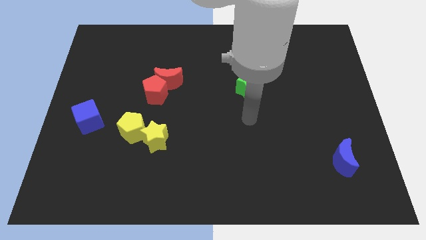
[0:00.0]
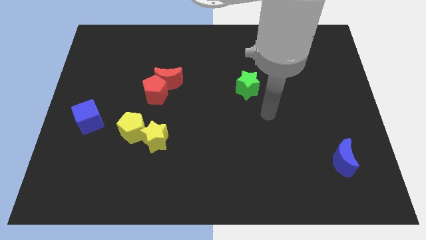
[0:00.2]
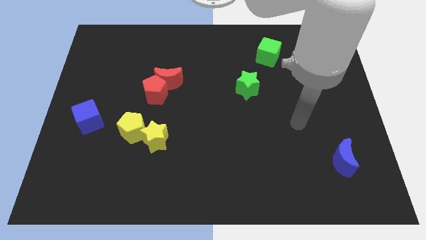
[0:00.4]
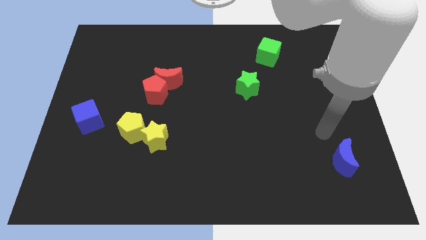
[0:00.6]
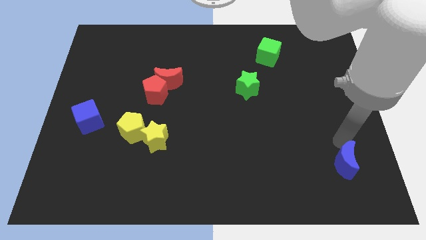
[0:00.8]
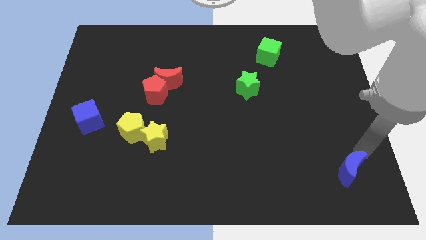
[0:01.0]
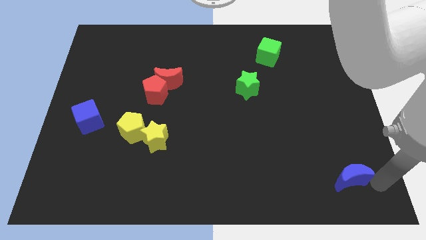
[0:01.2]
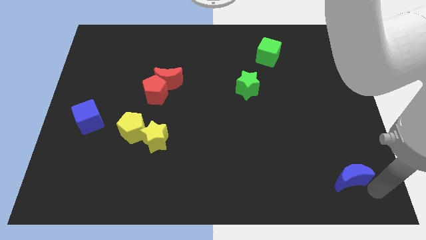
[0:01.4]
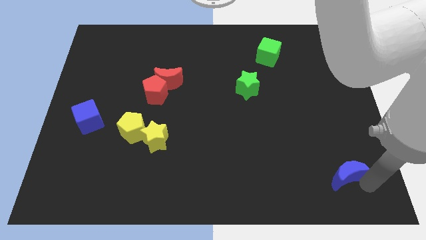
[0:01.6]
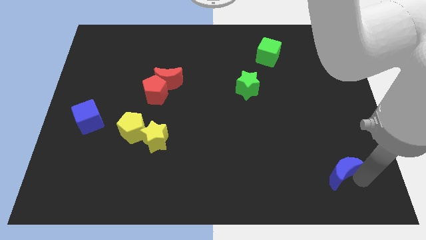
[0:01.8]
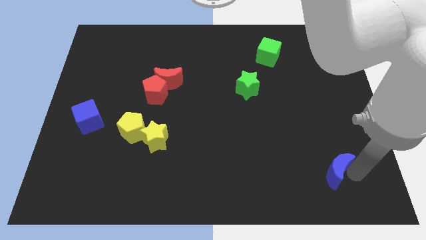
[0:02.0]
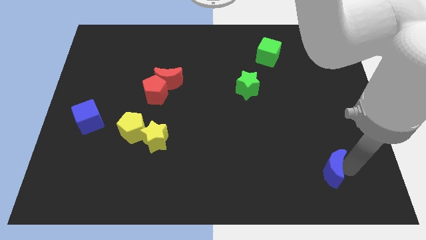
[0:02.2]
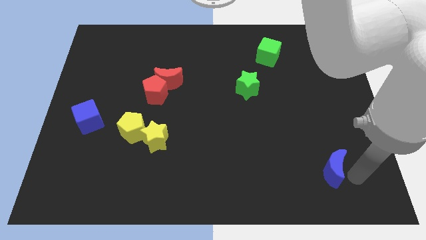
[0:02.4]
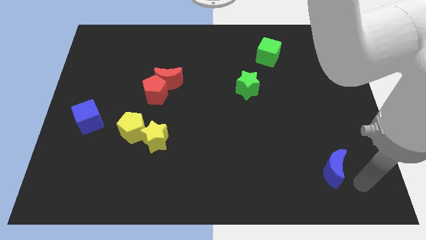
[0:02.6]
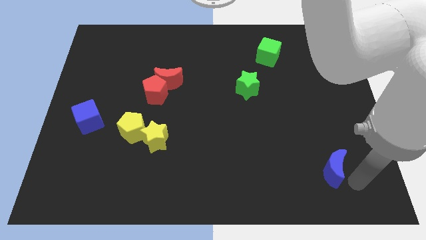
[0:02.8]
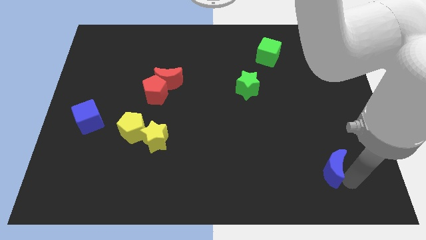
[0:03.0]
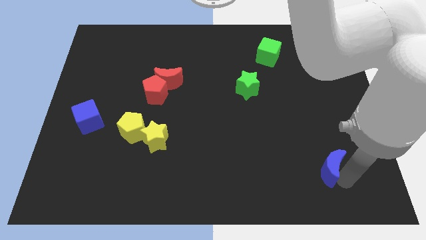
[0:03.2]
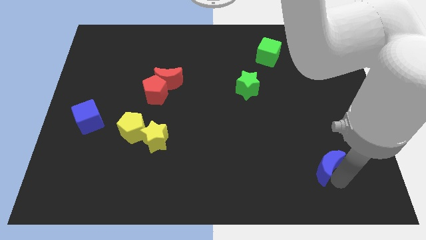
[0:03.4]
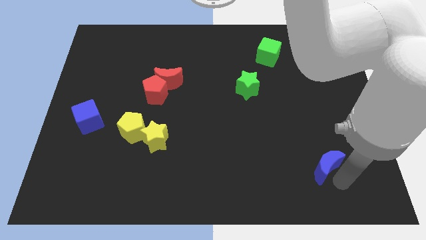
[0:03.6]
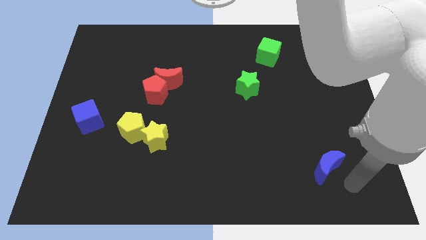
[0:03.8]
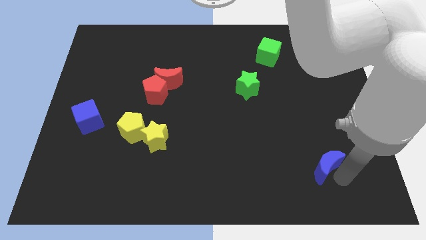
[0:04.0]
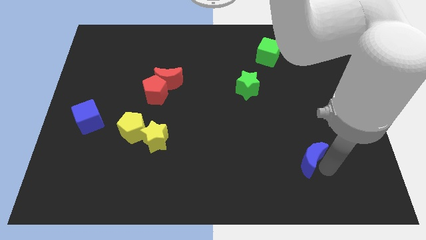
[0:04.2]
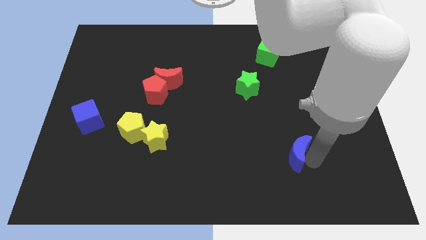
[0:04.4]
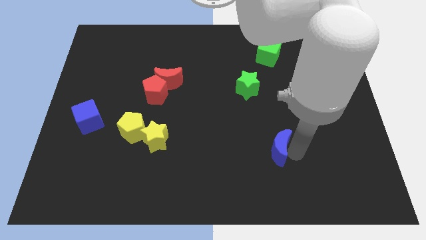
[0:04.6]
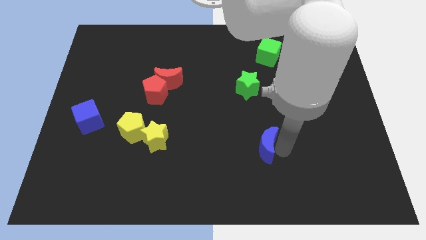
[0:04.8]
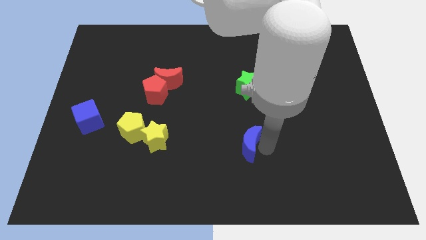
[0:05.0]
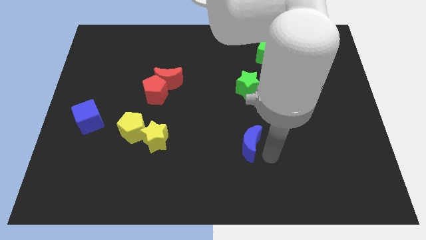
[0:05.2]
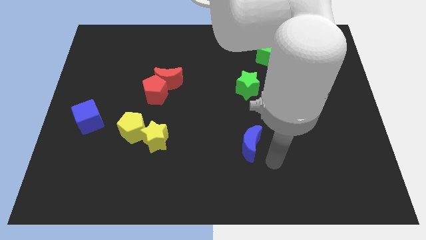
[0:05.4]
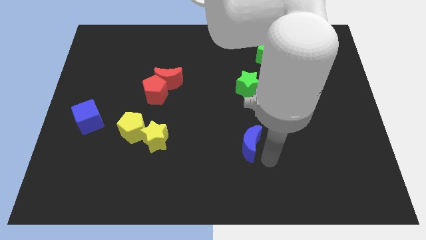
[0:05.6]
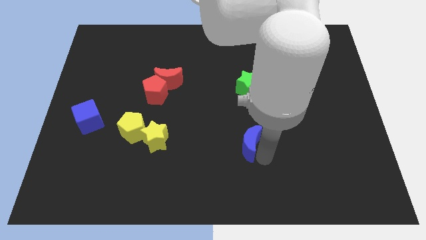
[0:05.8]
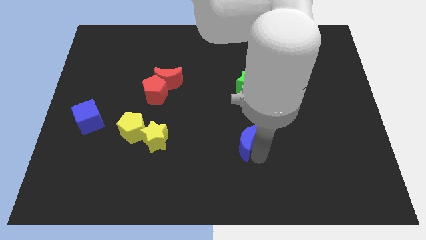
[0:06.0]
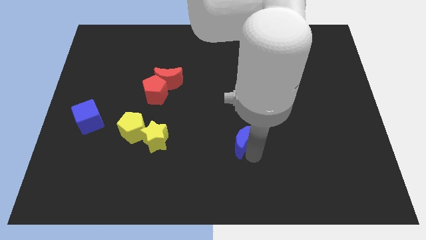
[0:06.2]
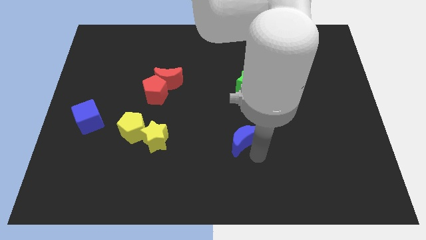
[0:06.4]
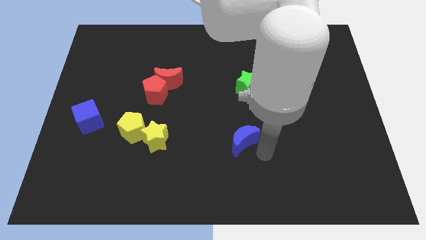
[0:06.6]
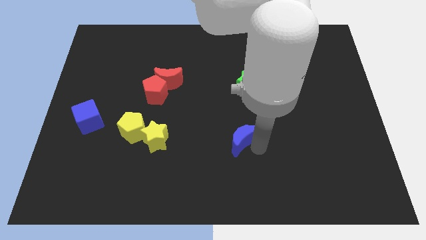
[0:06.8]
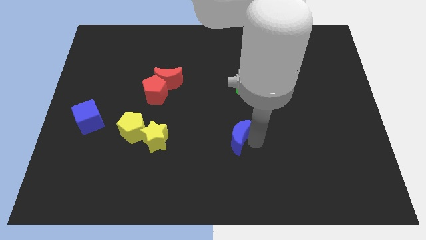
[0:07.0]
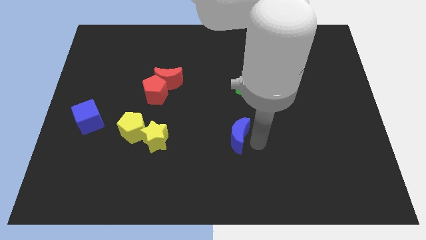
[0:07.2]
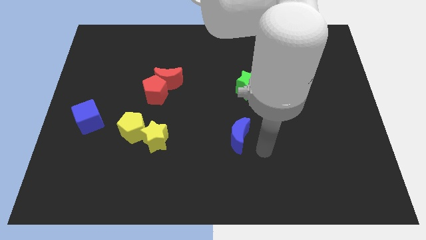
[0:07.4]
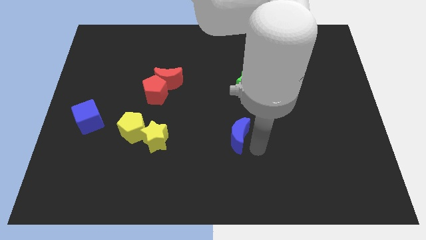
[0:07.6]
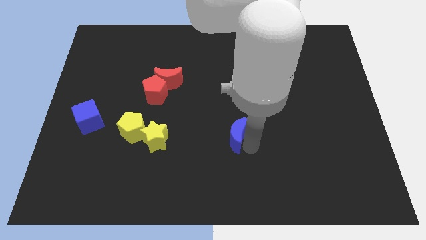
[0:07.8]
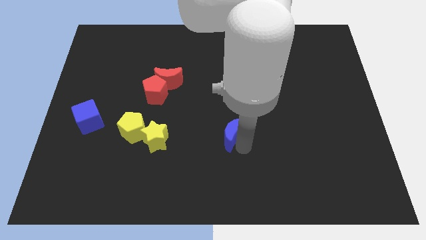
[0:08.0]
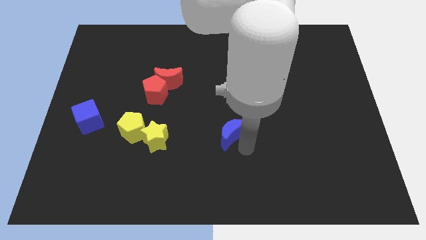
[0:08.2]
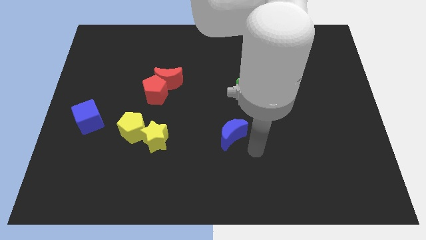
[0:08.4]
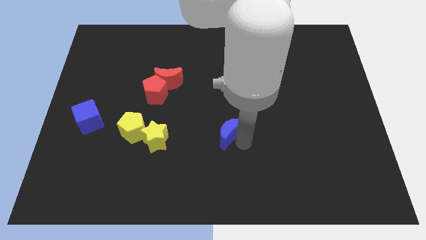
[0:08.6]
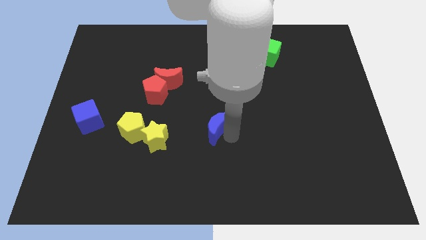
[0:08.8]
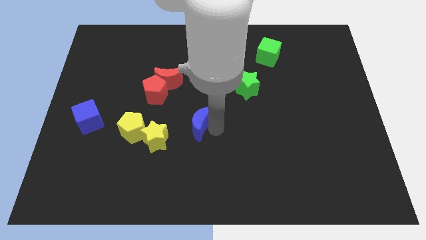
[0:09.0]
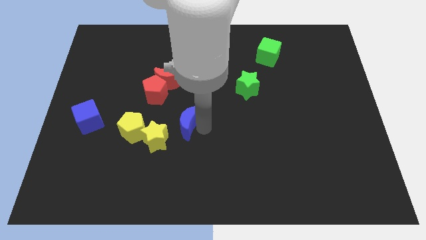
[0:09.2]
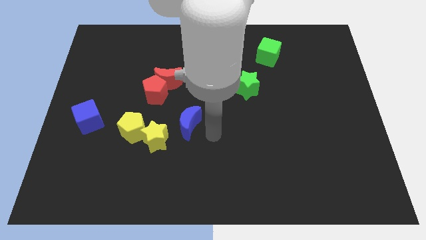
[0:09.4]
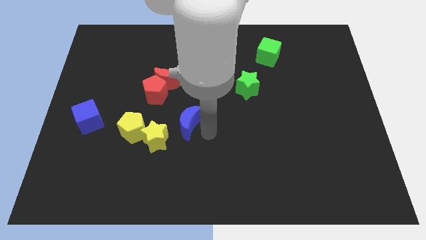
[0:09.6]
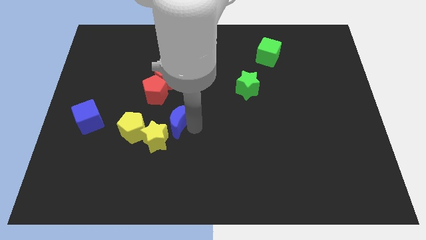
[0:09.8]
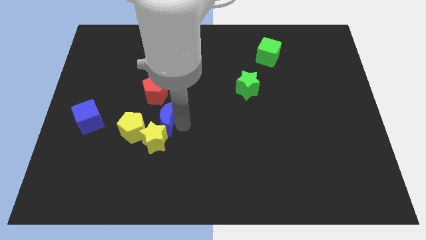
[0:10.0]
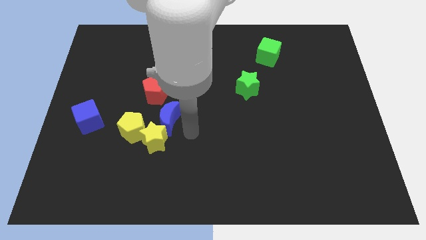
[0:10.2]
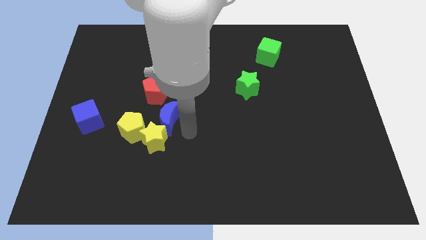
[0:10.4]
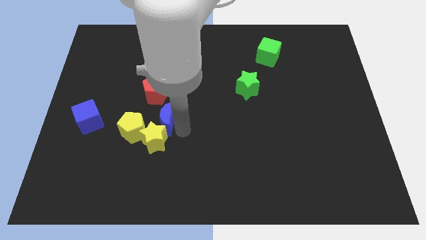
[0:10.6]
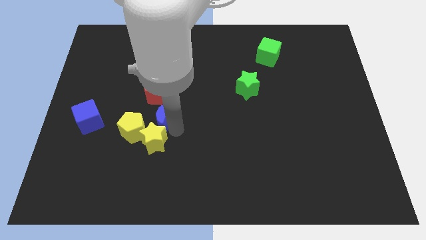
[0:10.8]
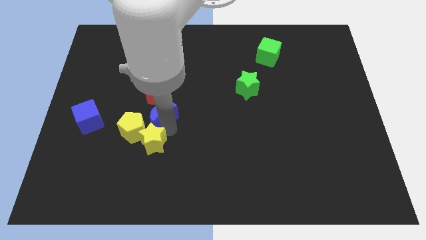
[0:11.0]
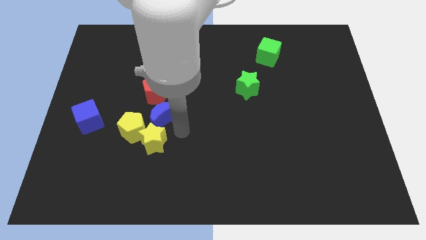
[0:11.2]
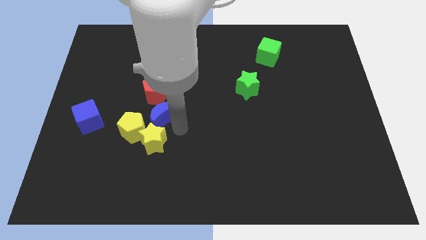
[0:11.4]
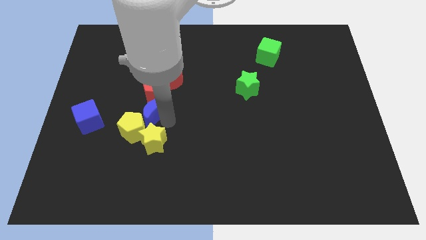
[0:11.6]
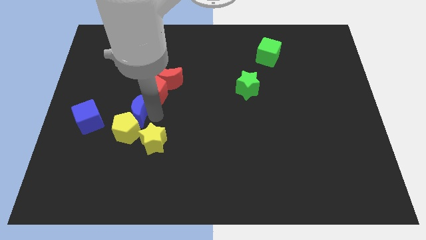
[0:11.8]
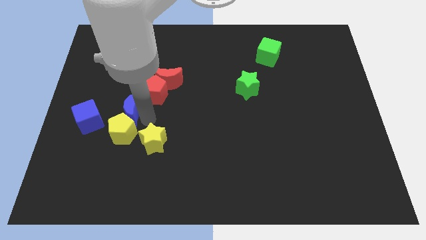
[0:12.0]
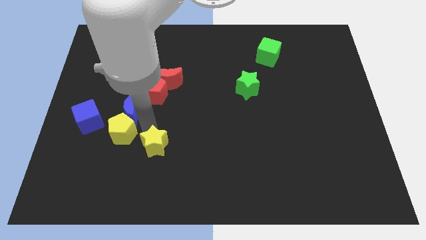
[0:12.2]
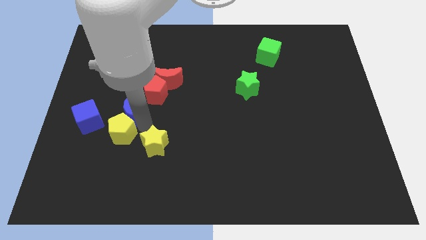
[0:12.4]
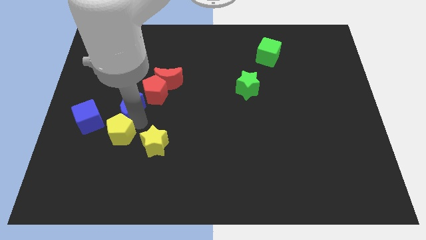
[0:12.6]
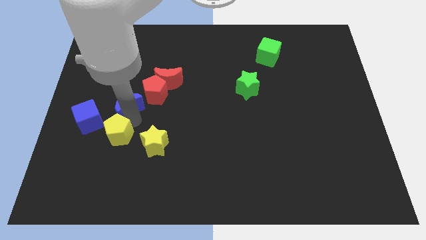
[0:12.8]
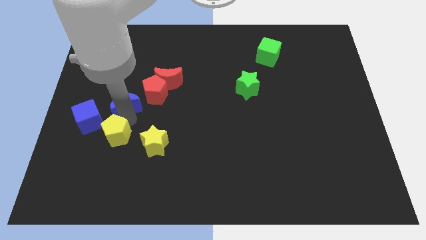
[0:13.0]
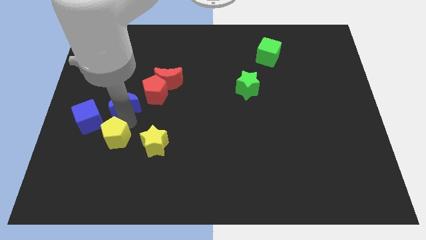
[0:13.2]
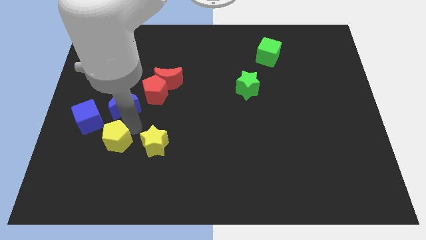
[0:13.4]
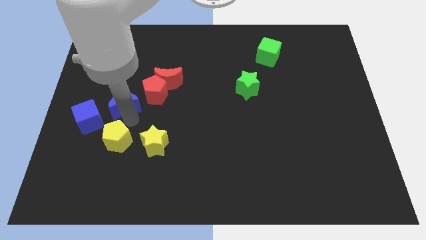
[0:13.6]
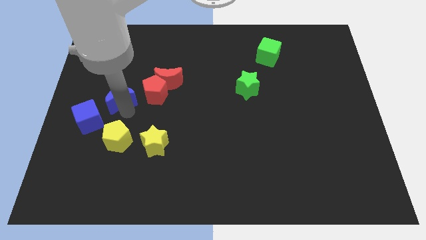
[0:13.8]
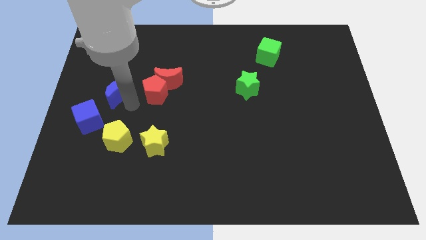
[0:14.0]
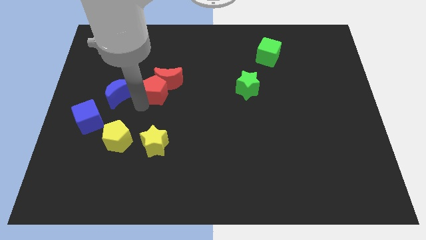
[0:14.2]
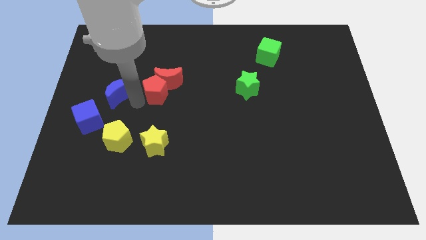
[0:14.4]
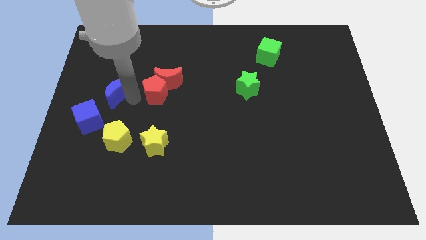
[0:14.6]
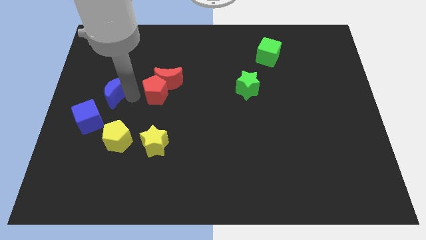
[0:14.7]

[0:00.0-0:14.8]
push the blue moon to the top of the blue cube

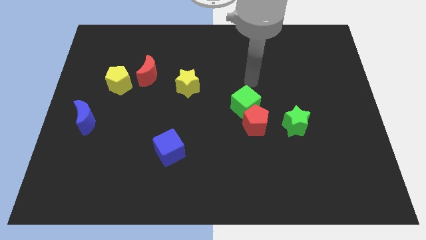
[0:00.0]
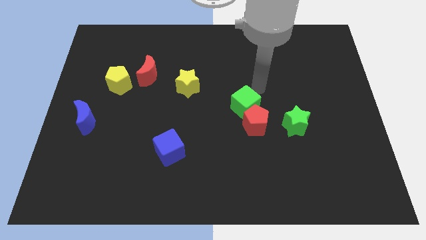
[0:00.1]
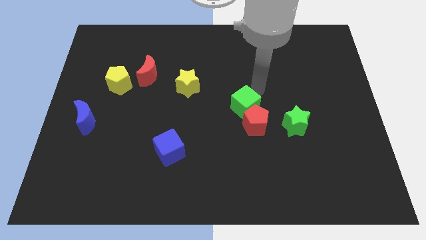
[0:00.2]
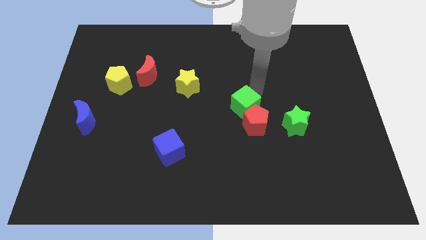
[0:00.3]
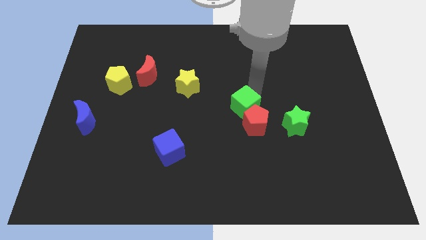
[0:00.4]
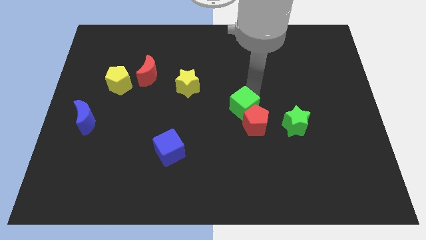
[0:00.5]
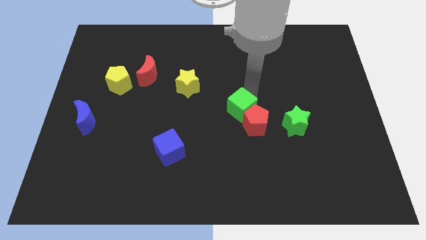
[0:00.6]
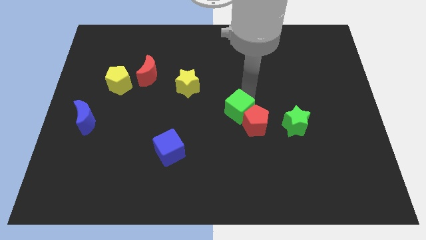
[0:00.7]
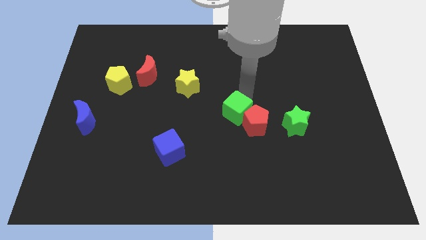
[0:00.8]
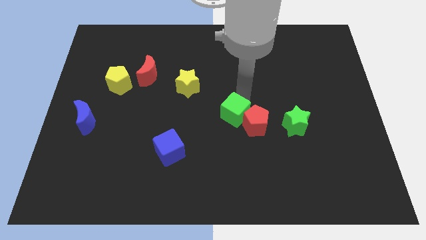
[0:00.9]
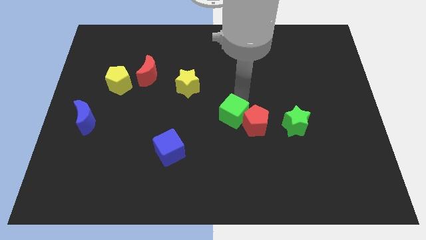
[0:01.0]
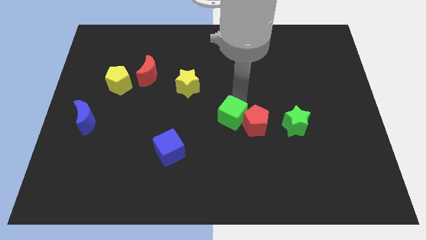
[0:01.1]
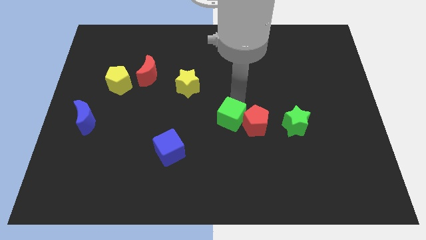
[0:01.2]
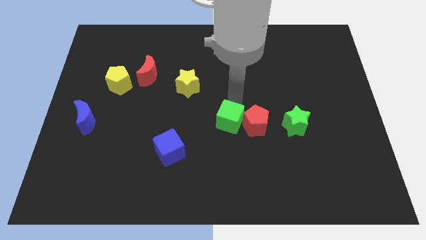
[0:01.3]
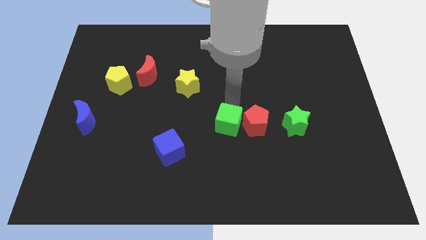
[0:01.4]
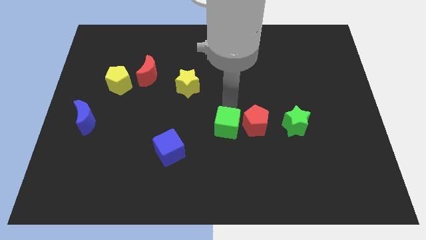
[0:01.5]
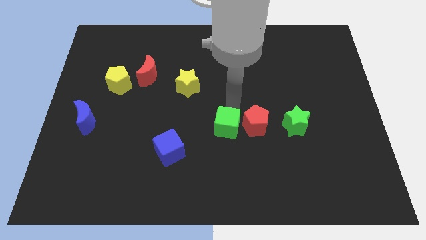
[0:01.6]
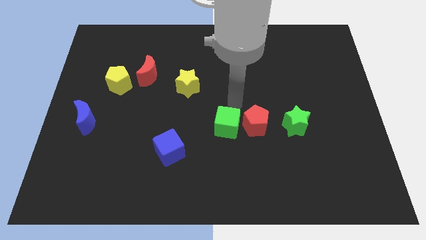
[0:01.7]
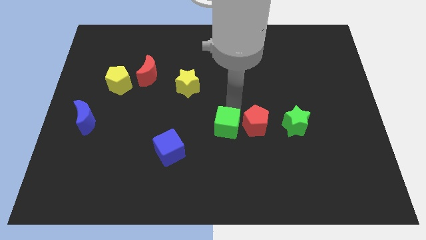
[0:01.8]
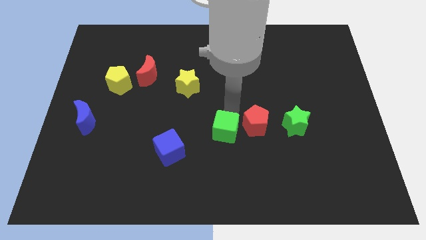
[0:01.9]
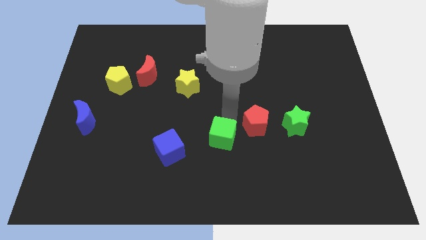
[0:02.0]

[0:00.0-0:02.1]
move the green cube to the right of the blue cube
